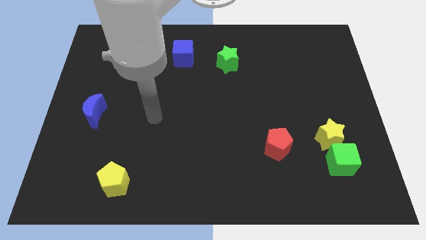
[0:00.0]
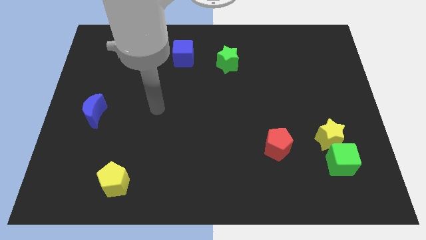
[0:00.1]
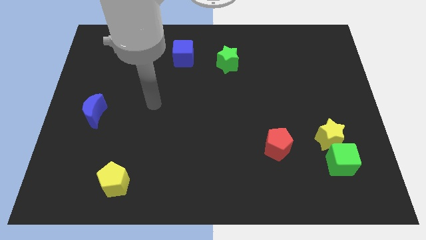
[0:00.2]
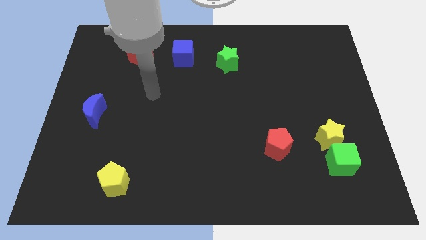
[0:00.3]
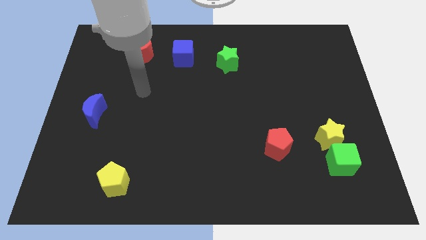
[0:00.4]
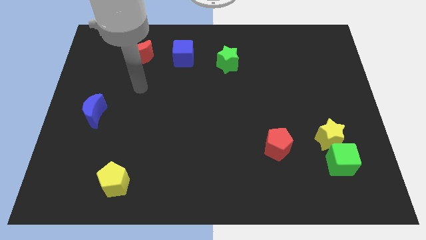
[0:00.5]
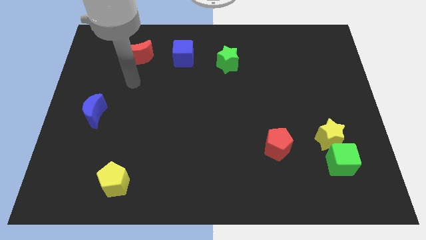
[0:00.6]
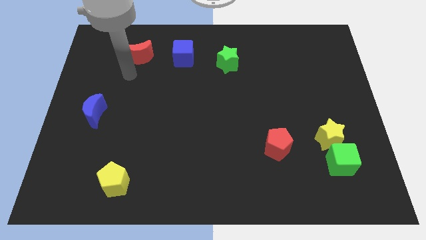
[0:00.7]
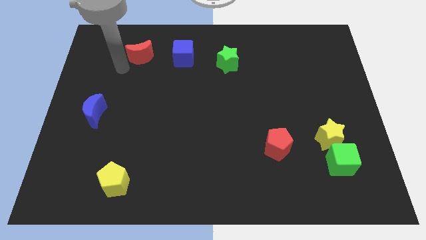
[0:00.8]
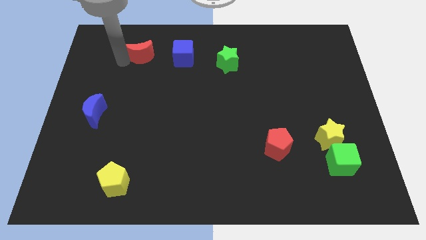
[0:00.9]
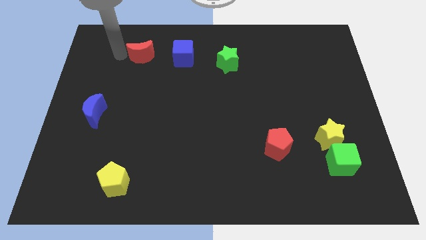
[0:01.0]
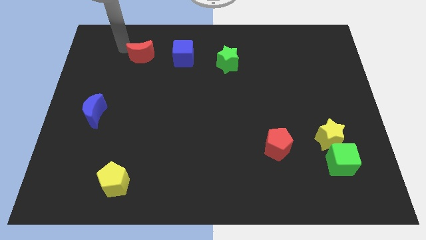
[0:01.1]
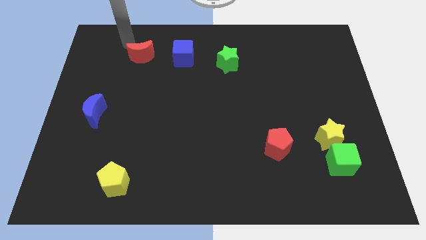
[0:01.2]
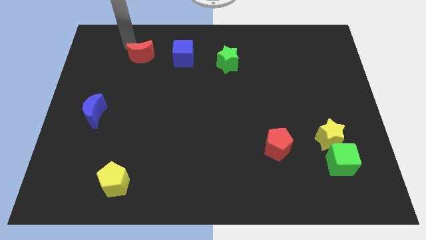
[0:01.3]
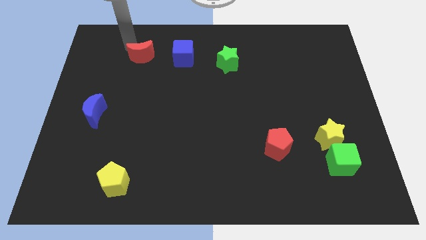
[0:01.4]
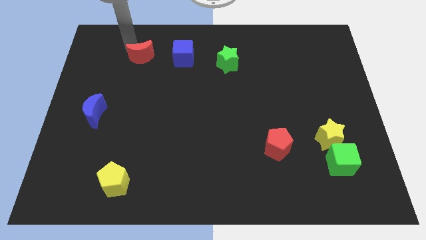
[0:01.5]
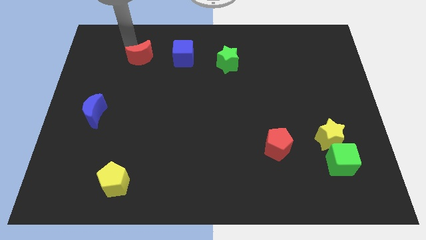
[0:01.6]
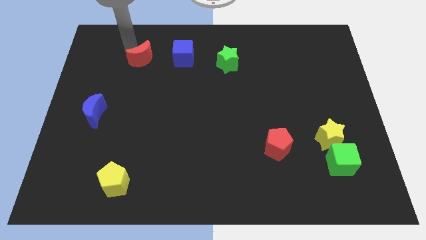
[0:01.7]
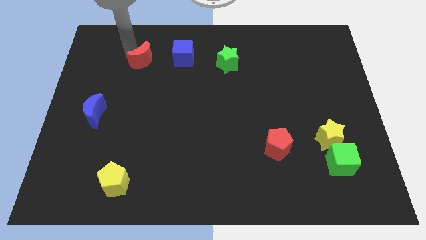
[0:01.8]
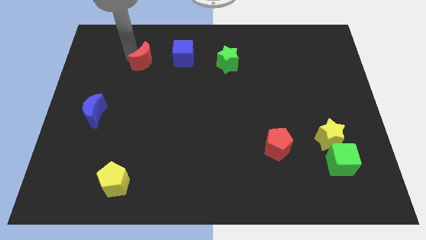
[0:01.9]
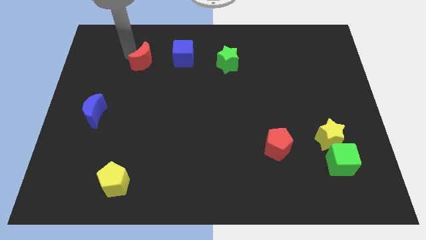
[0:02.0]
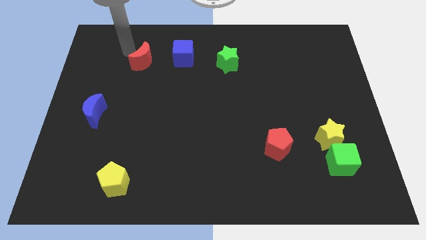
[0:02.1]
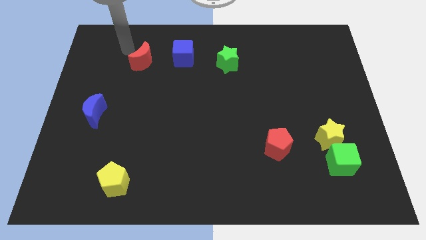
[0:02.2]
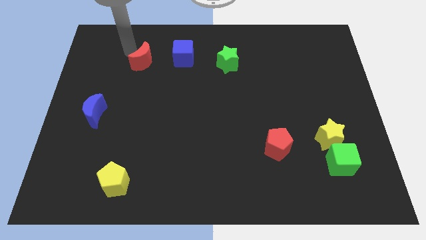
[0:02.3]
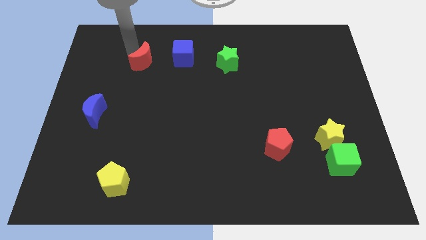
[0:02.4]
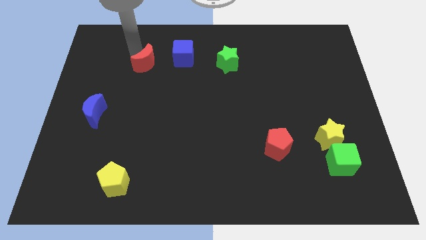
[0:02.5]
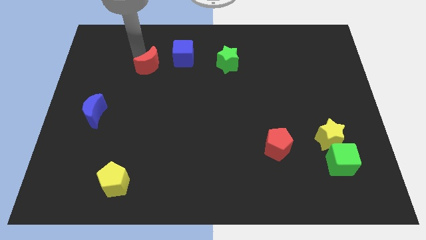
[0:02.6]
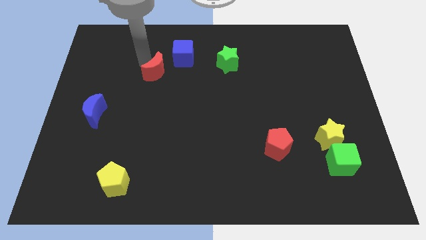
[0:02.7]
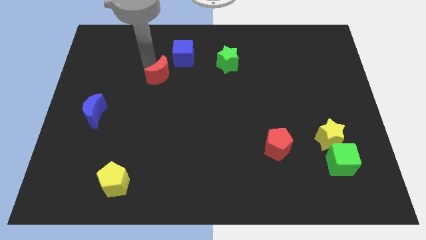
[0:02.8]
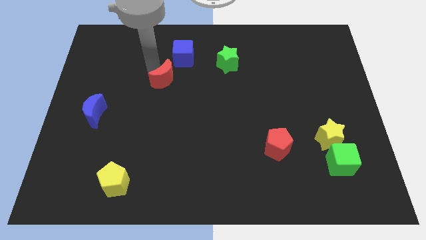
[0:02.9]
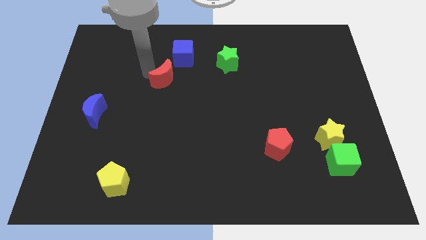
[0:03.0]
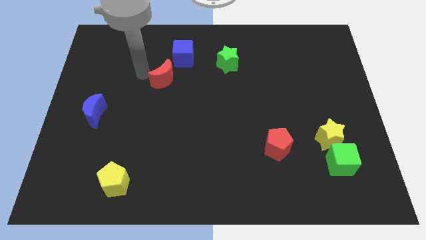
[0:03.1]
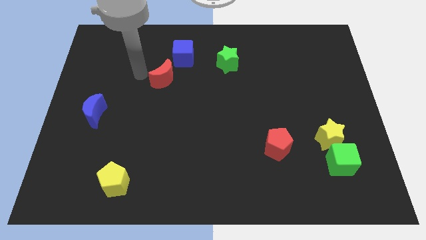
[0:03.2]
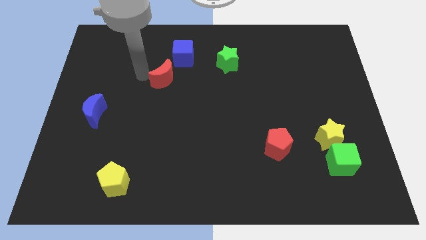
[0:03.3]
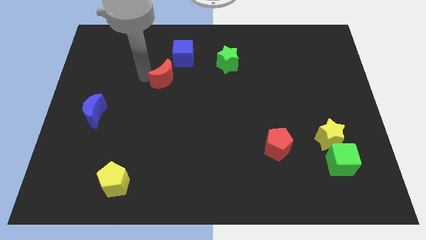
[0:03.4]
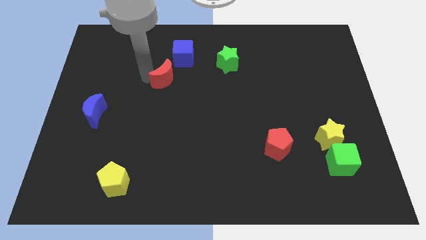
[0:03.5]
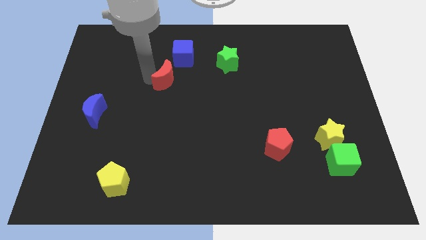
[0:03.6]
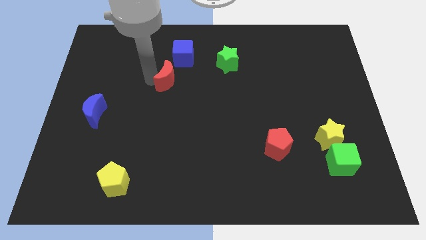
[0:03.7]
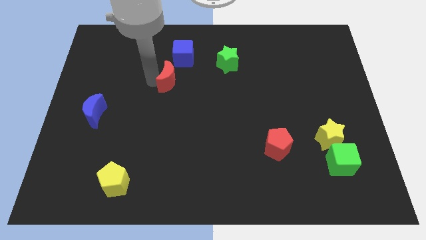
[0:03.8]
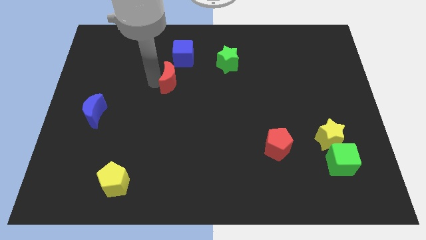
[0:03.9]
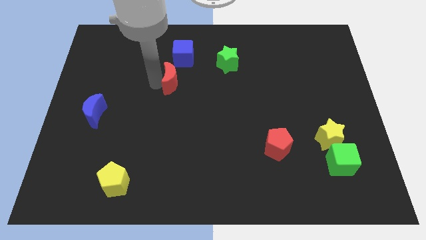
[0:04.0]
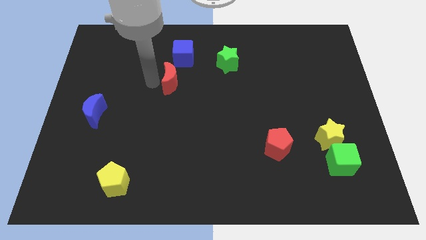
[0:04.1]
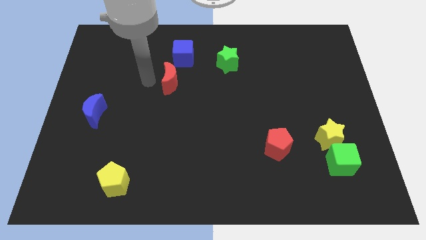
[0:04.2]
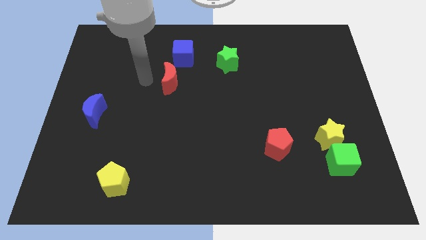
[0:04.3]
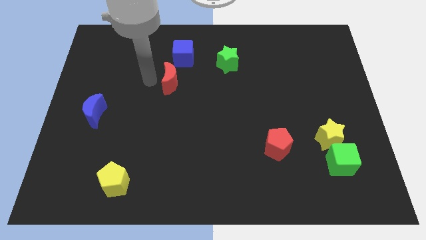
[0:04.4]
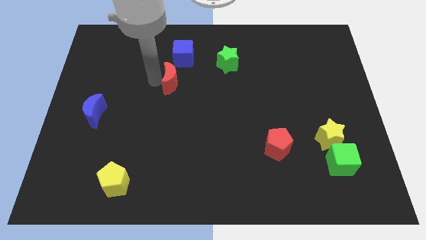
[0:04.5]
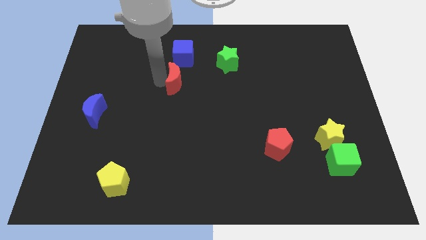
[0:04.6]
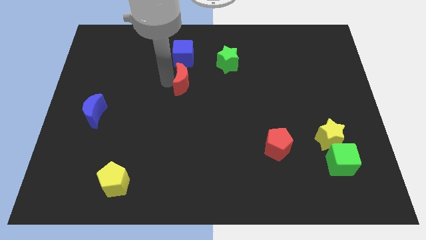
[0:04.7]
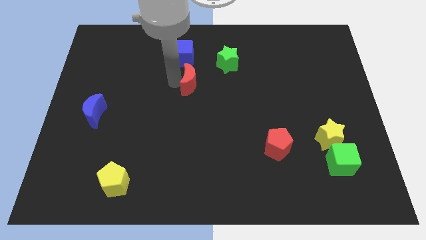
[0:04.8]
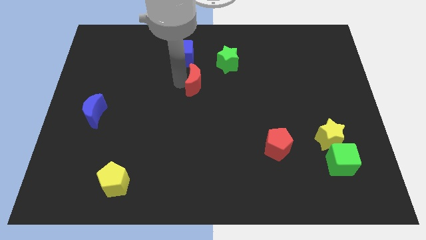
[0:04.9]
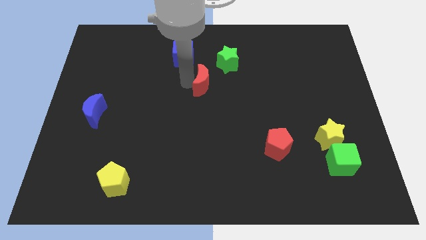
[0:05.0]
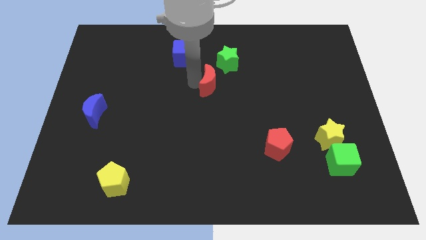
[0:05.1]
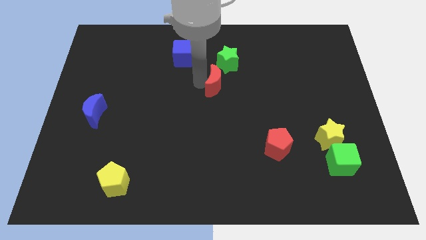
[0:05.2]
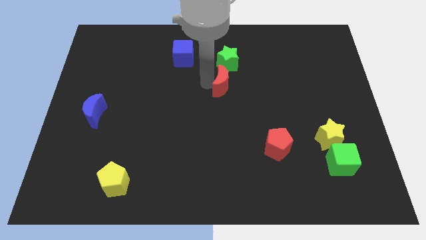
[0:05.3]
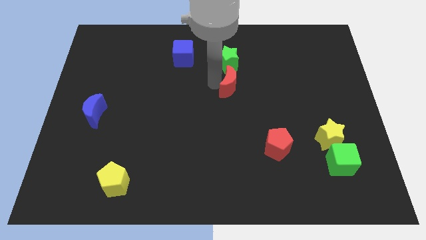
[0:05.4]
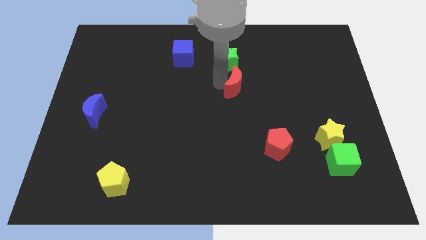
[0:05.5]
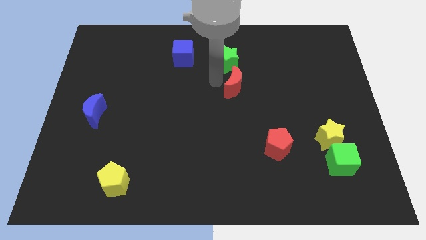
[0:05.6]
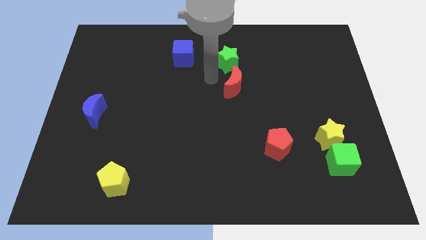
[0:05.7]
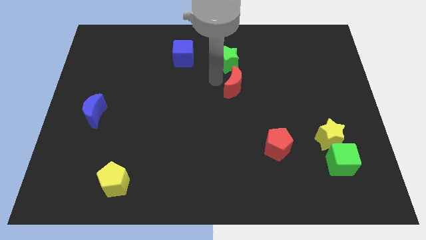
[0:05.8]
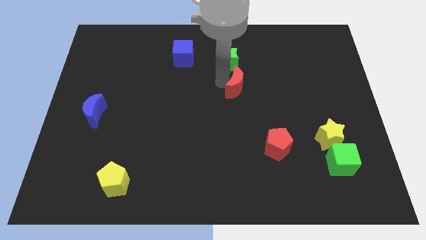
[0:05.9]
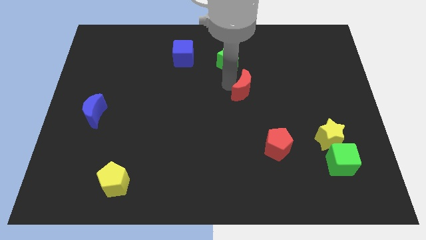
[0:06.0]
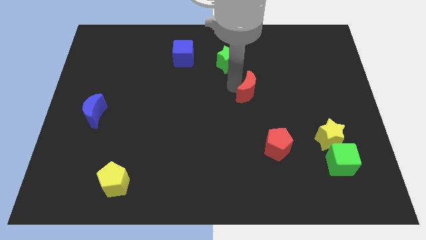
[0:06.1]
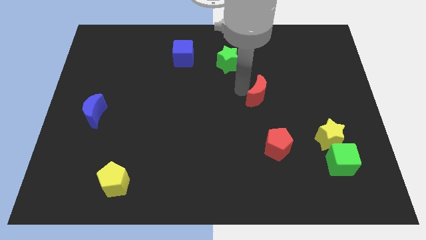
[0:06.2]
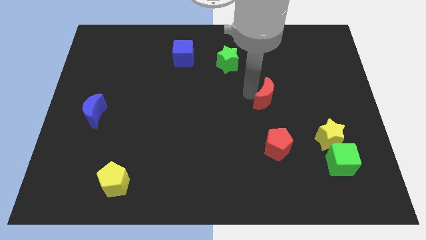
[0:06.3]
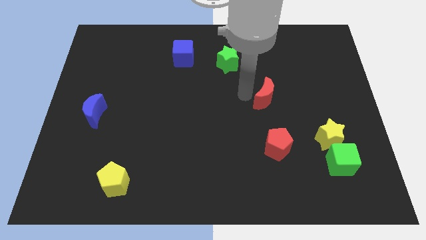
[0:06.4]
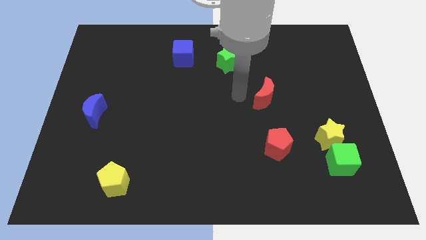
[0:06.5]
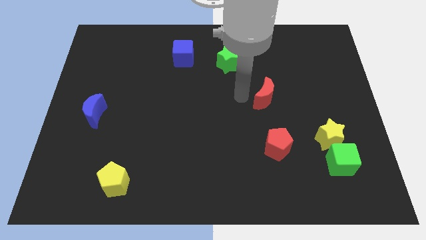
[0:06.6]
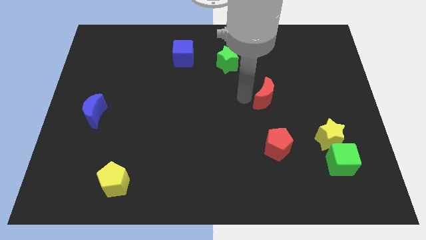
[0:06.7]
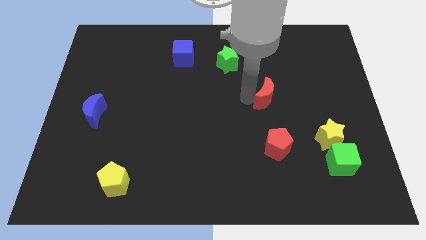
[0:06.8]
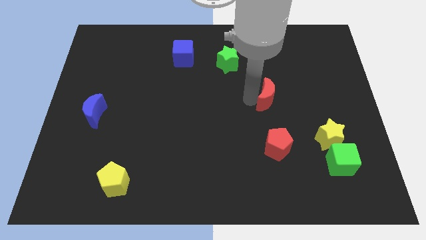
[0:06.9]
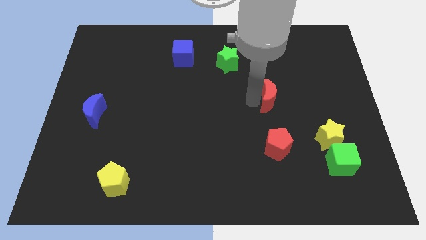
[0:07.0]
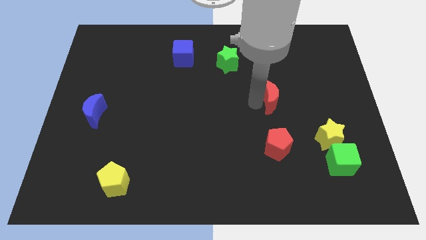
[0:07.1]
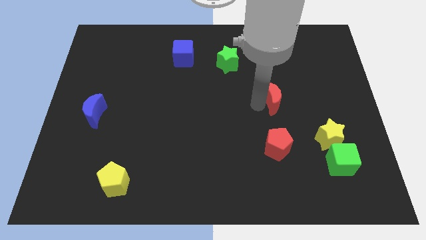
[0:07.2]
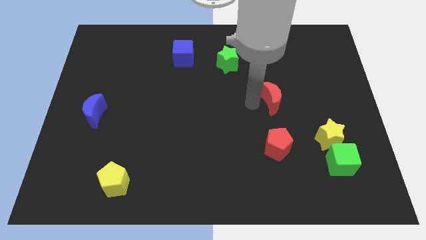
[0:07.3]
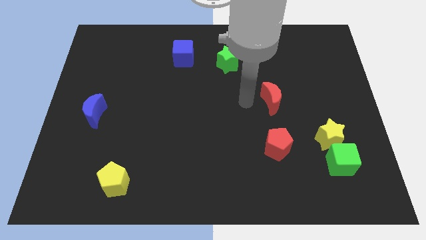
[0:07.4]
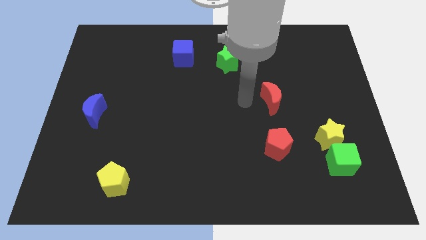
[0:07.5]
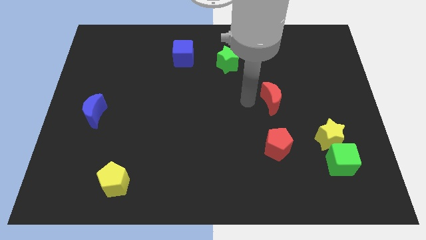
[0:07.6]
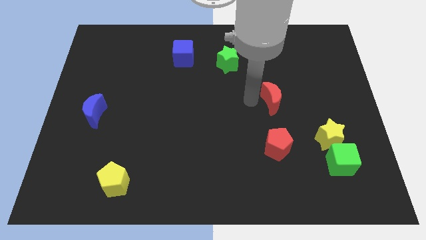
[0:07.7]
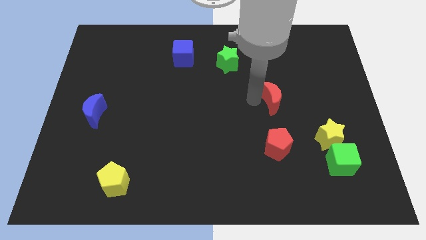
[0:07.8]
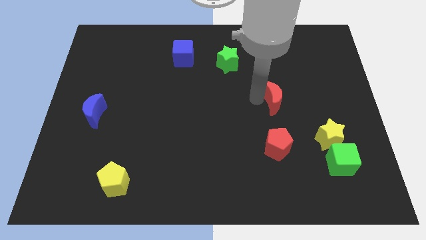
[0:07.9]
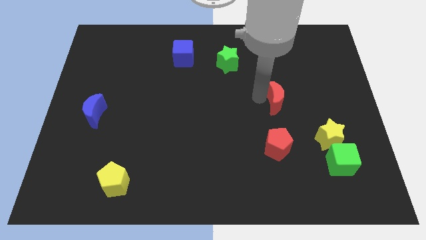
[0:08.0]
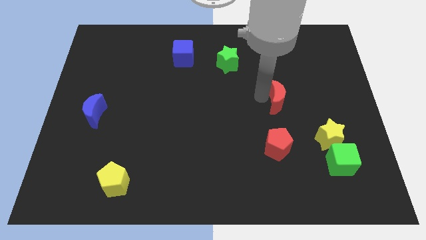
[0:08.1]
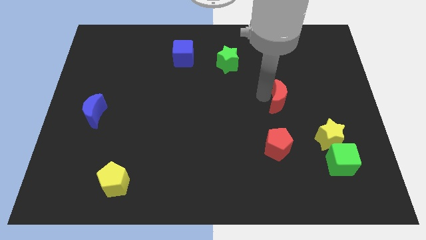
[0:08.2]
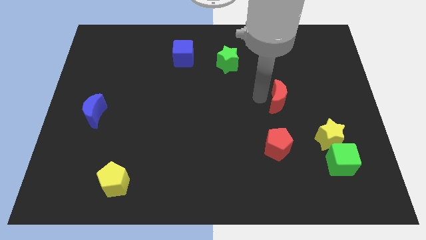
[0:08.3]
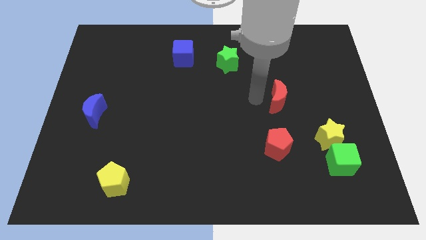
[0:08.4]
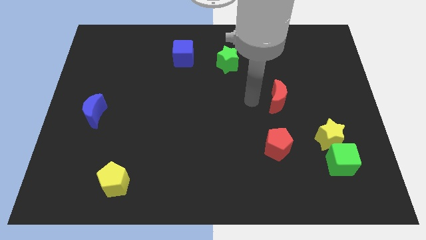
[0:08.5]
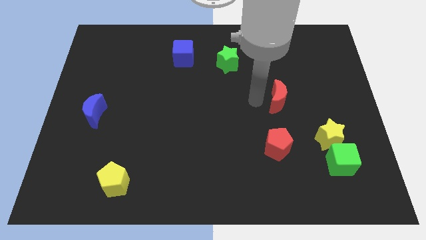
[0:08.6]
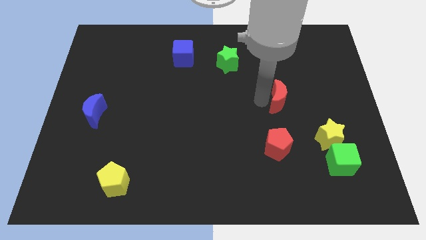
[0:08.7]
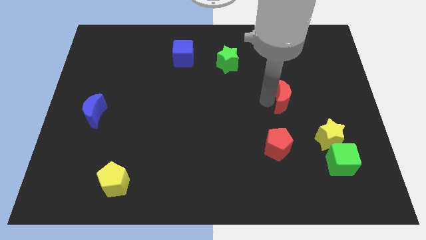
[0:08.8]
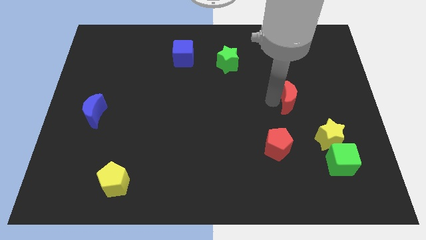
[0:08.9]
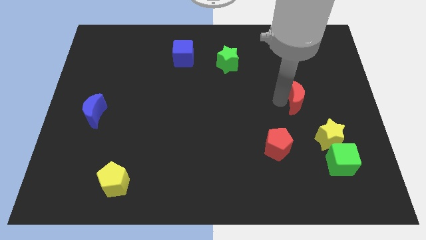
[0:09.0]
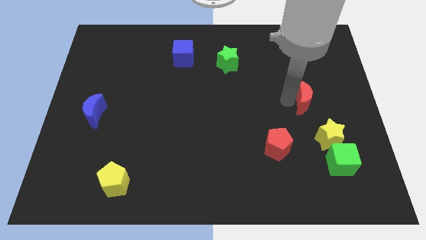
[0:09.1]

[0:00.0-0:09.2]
slide the red moon above the yellow star
